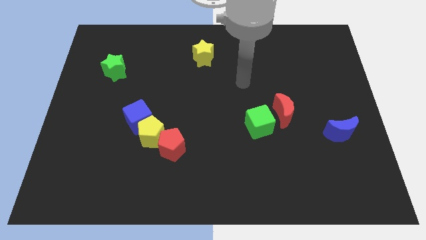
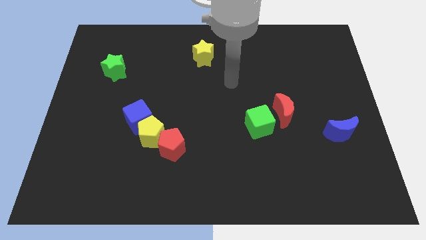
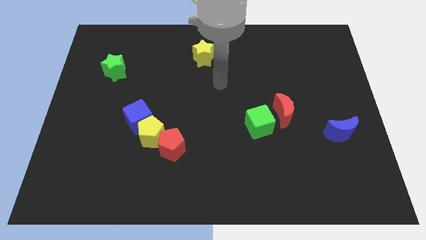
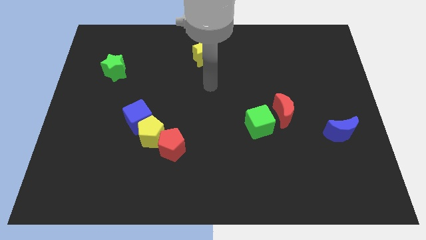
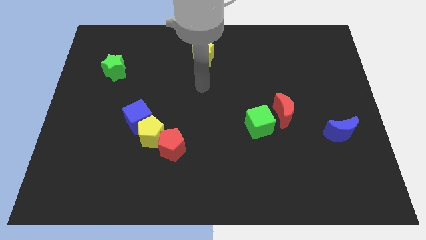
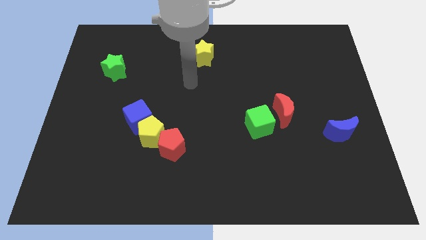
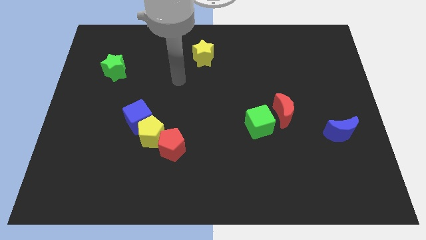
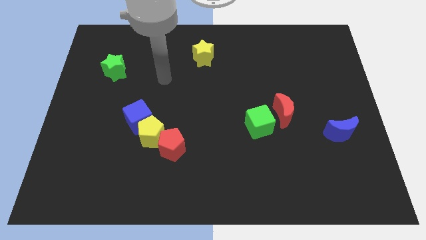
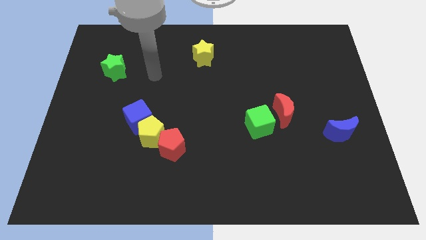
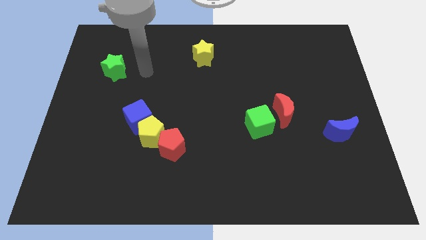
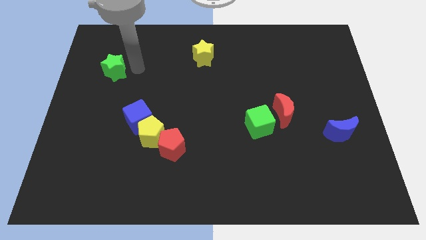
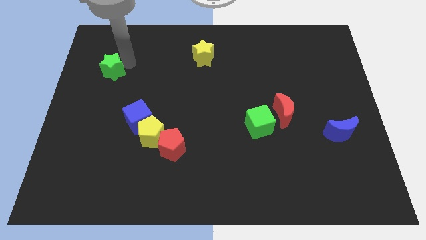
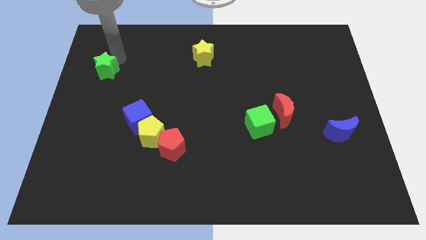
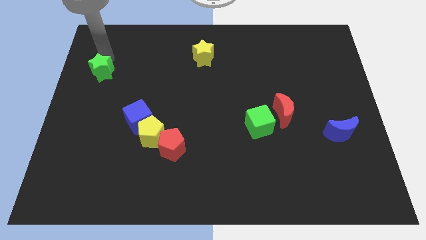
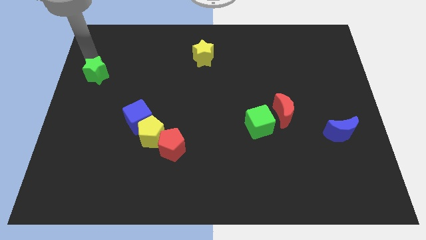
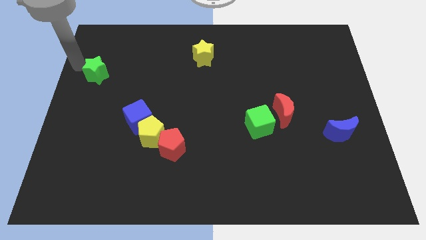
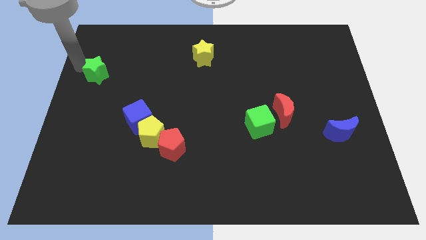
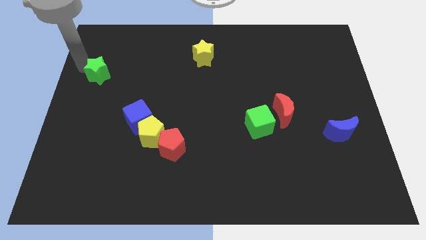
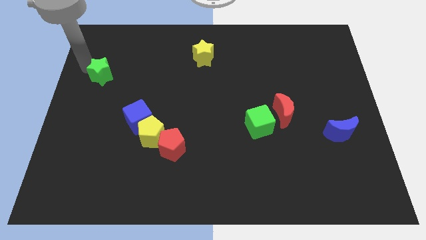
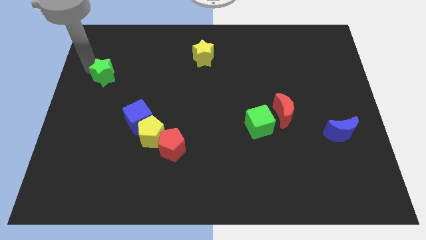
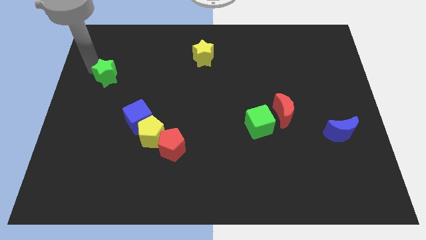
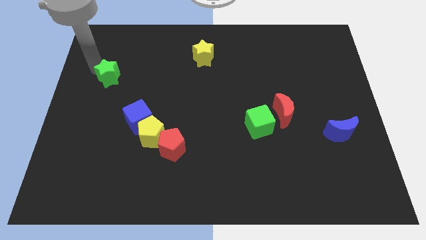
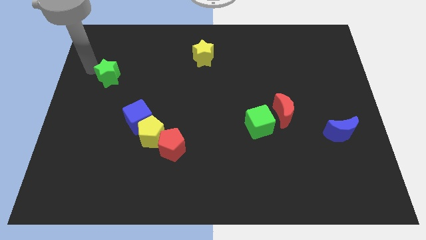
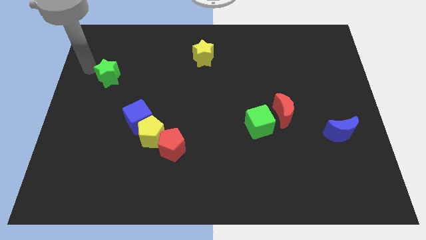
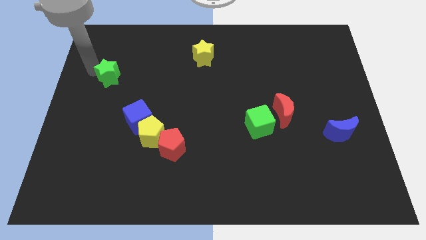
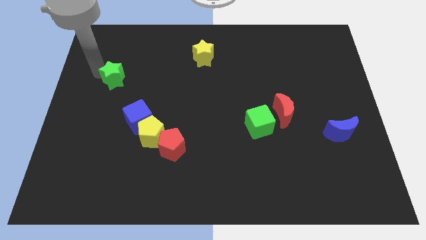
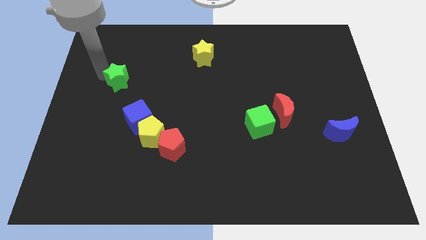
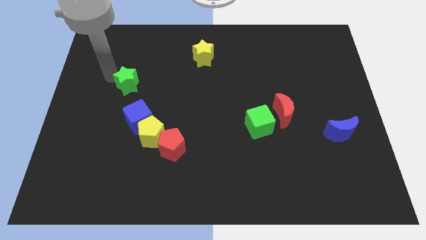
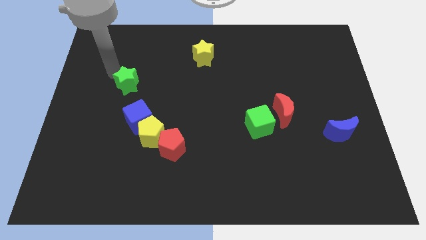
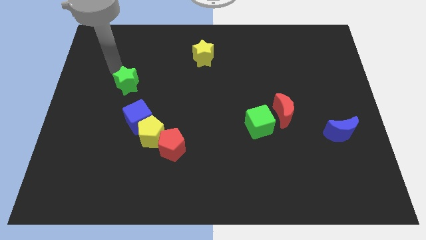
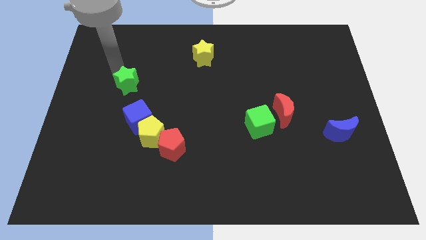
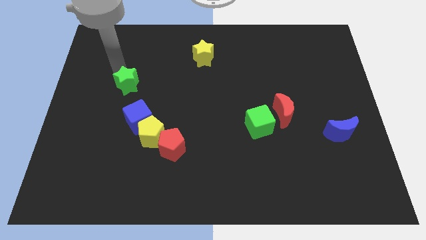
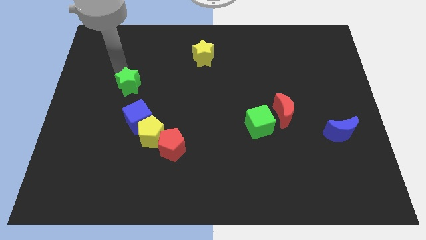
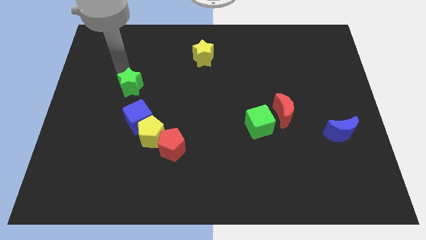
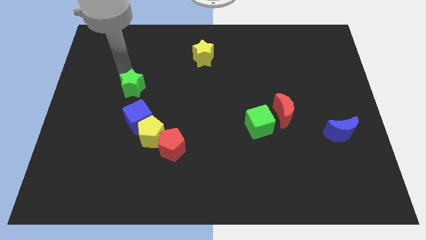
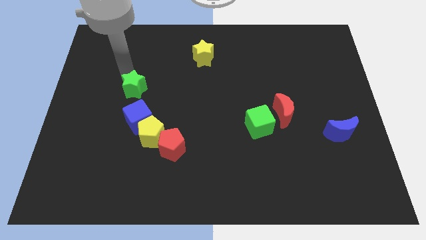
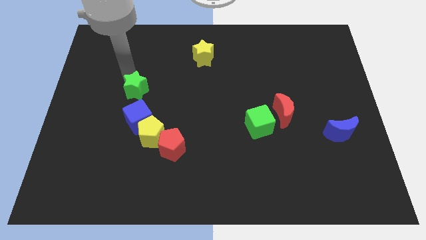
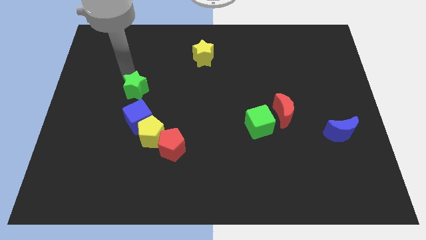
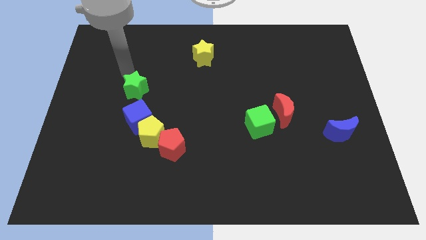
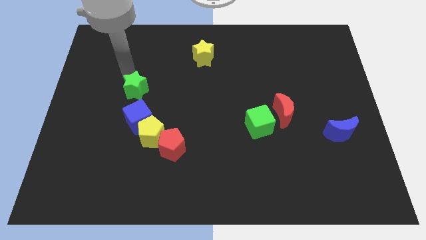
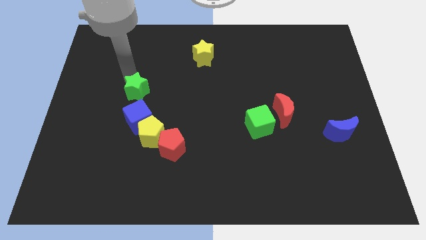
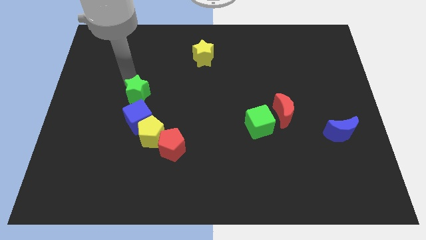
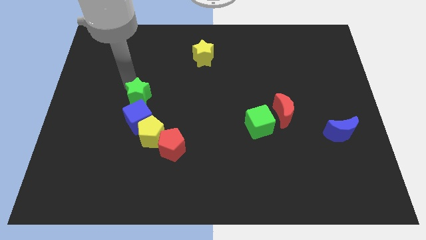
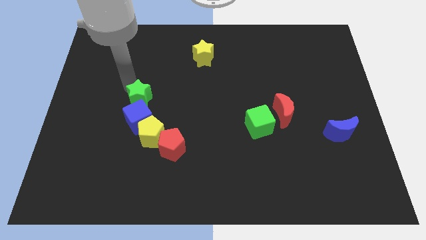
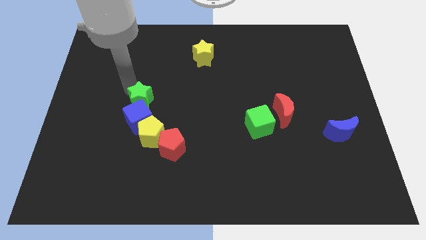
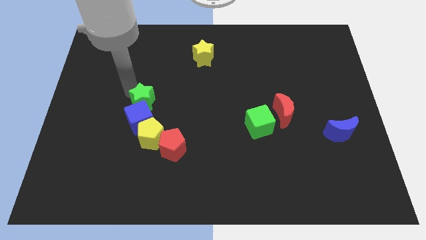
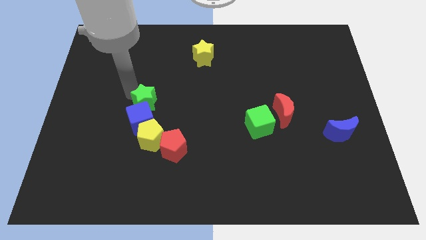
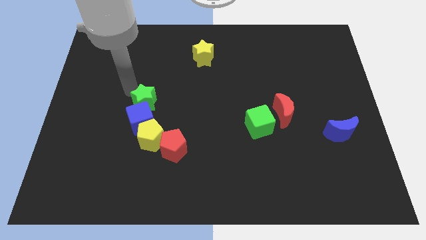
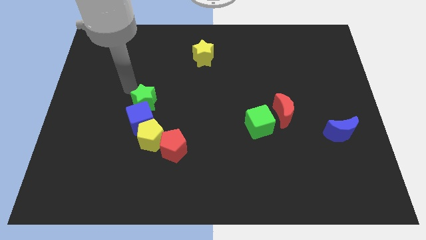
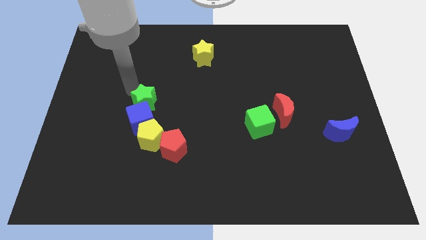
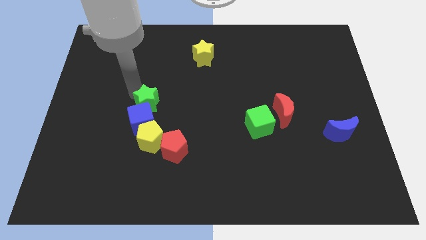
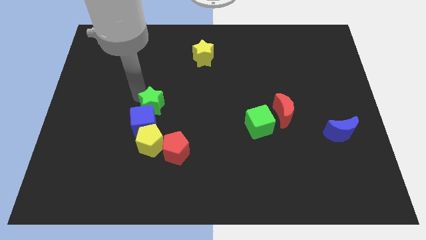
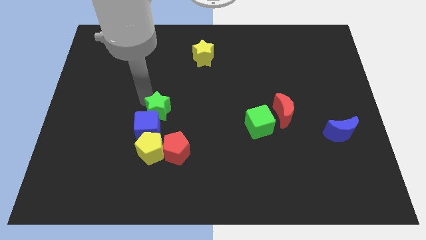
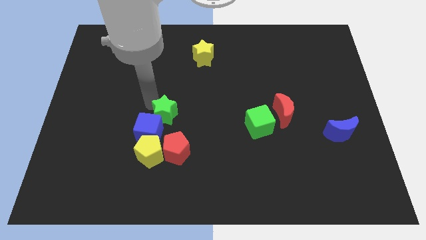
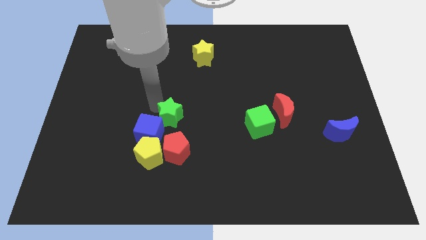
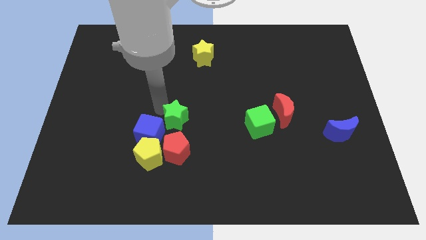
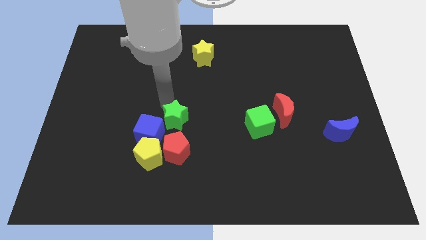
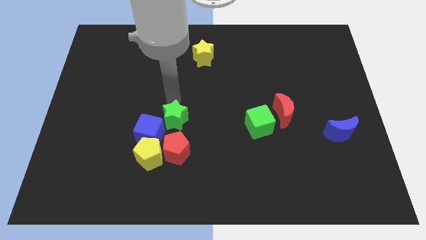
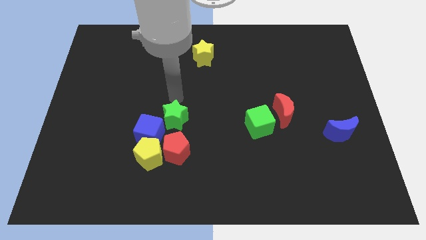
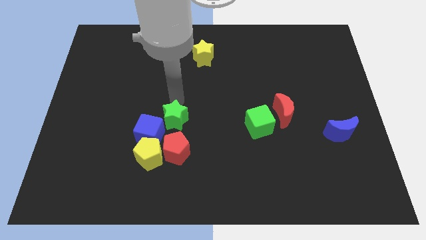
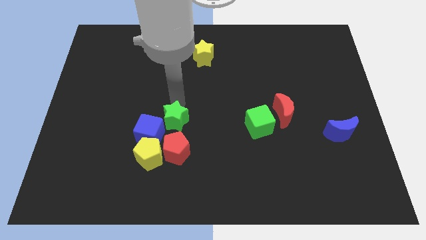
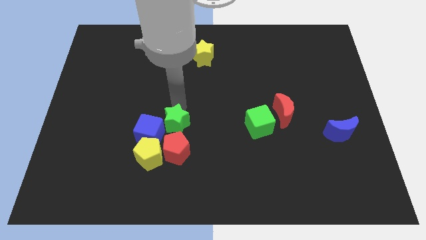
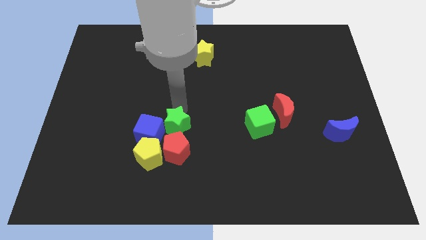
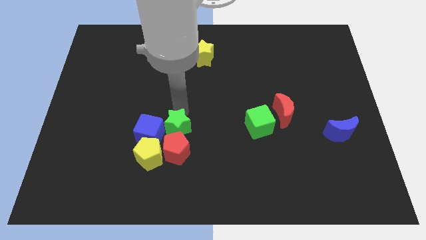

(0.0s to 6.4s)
put the green star next to the red pentagon

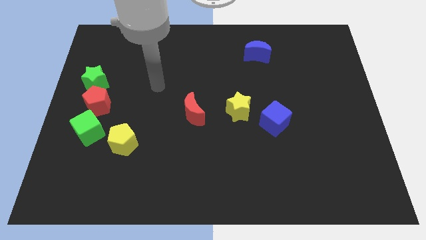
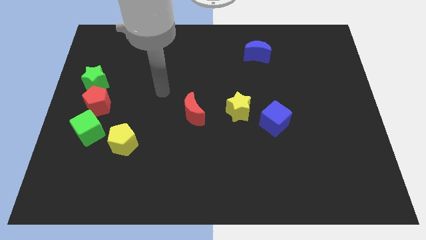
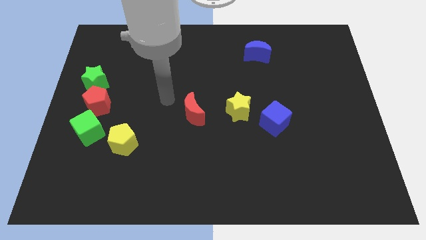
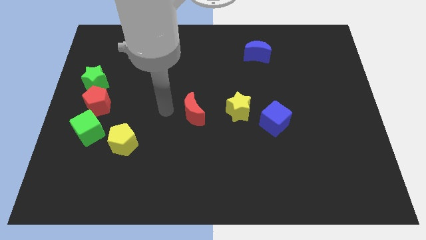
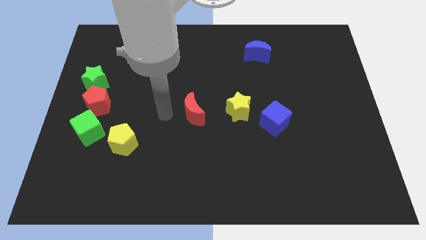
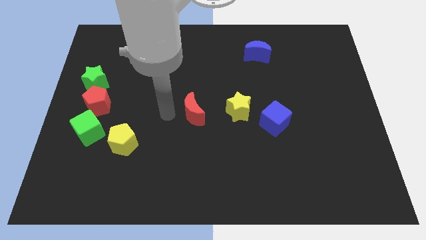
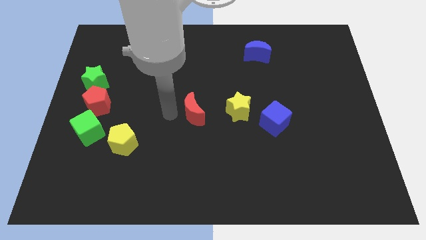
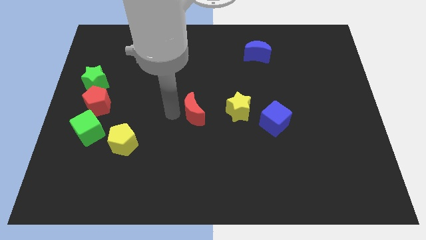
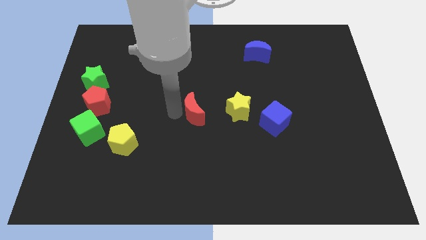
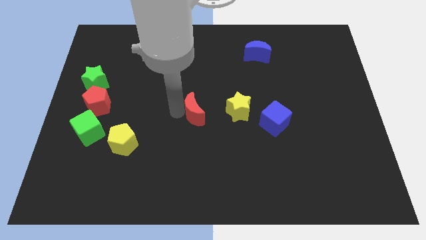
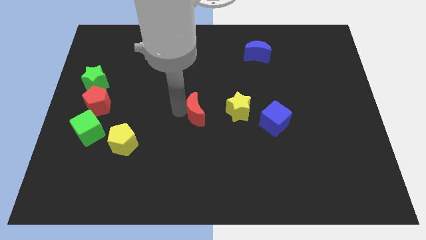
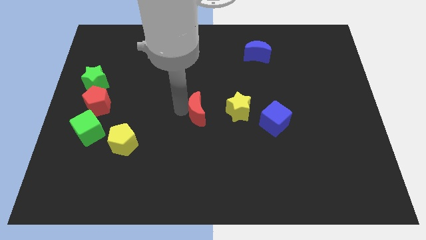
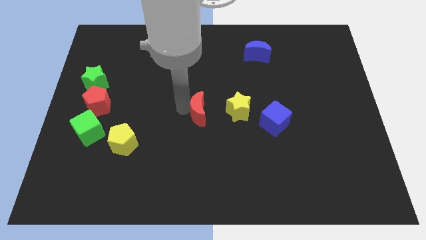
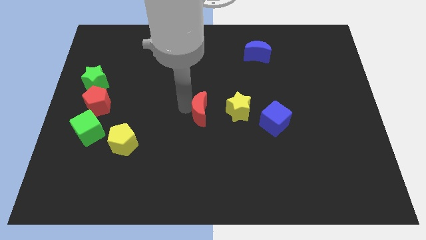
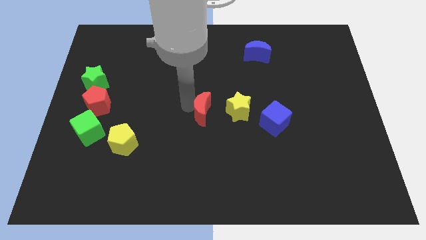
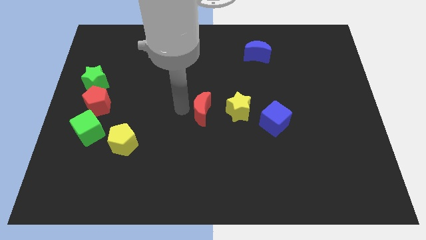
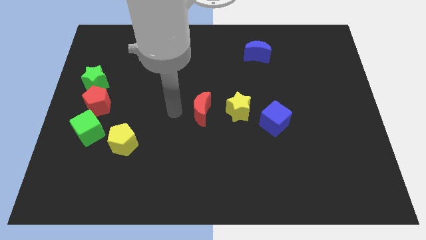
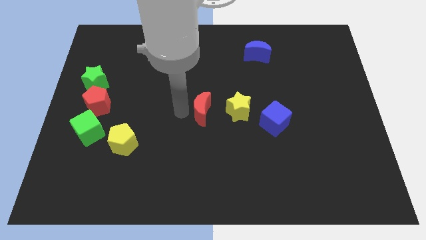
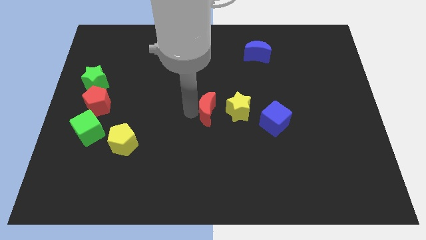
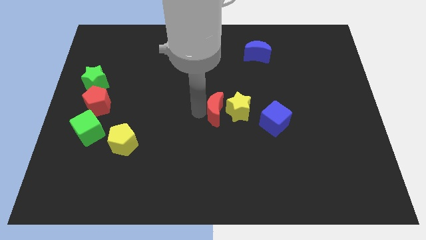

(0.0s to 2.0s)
slide the red moon towards the yellow star
